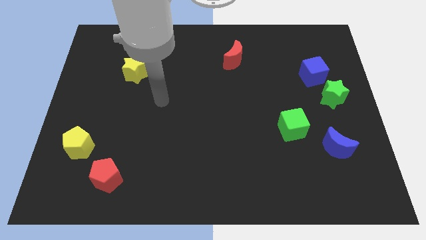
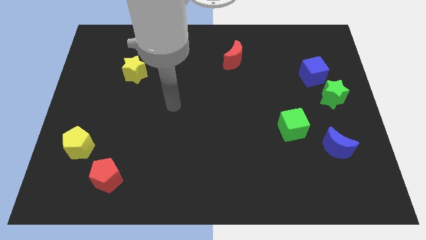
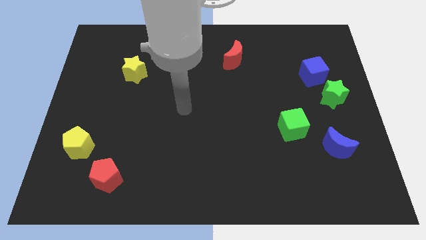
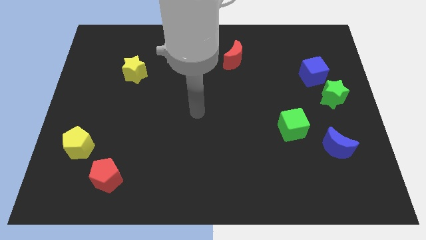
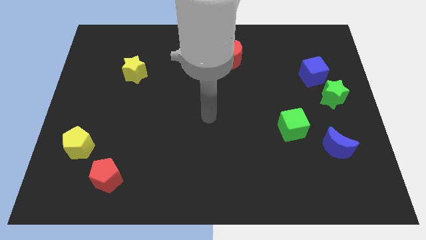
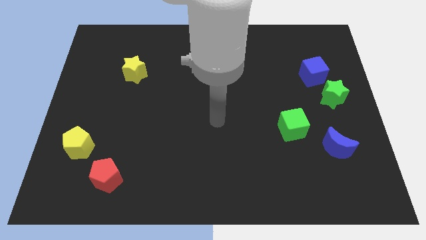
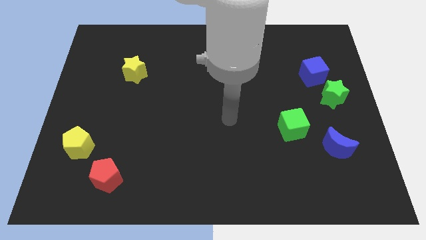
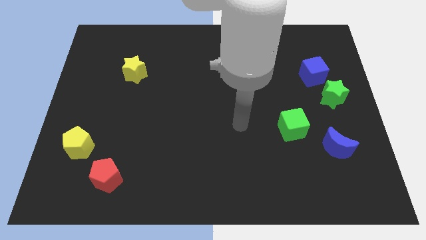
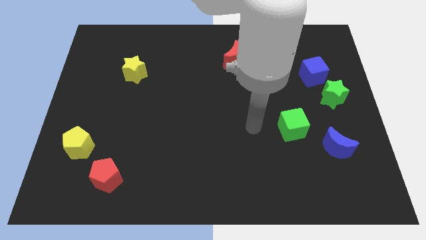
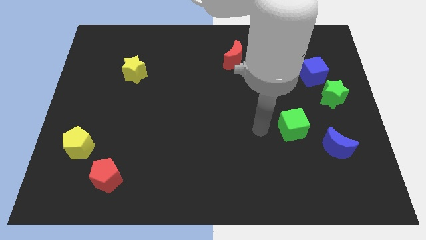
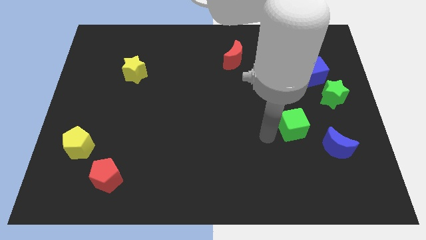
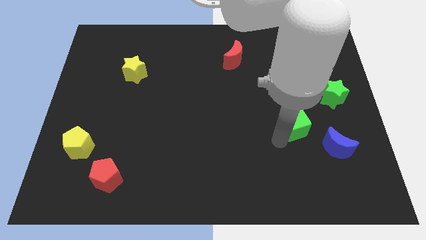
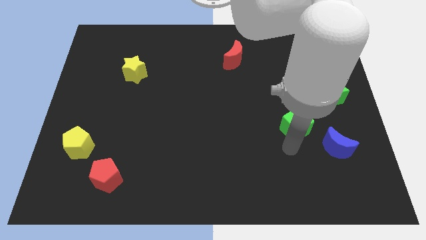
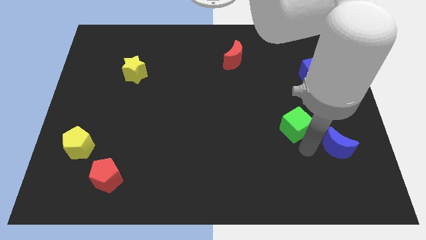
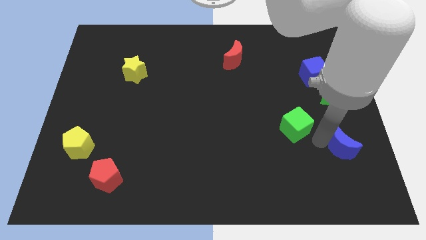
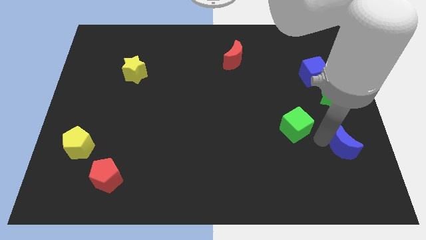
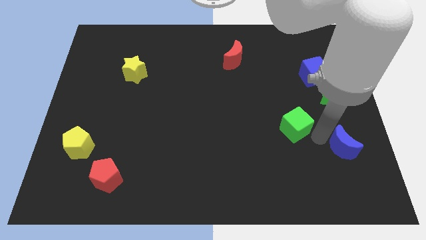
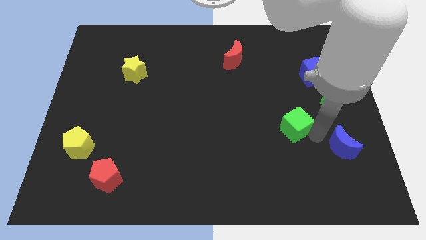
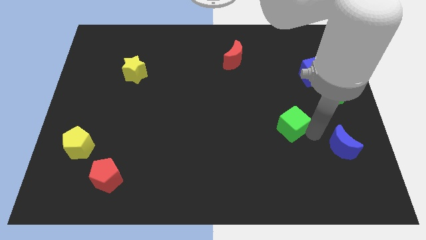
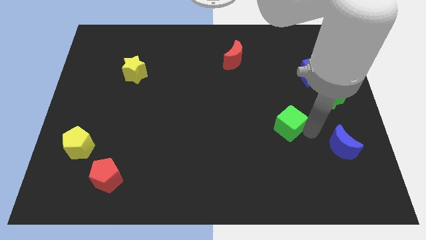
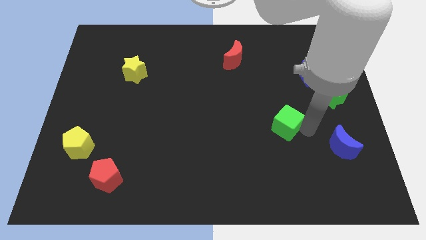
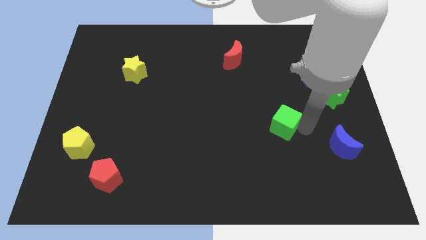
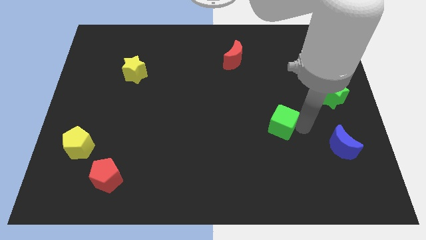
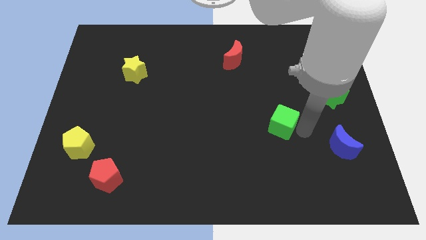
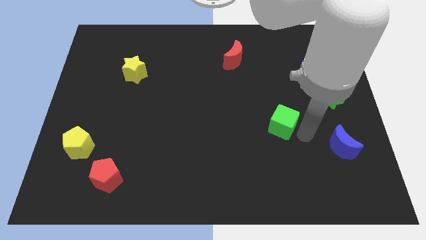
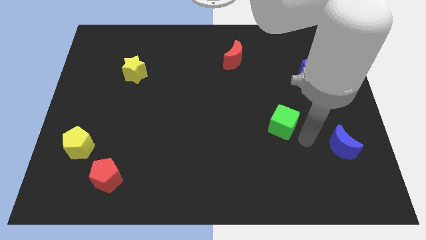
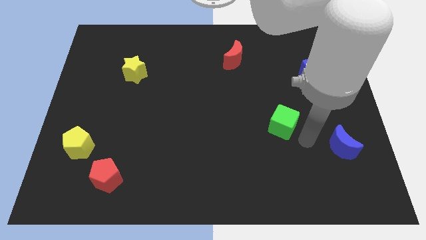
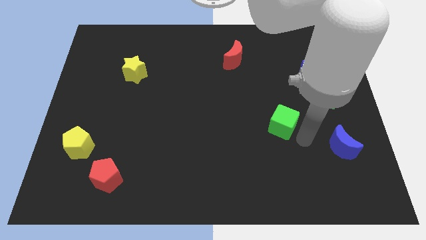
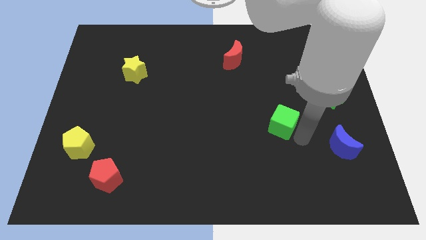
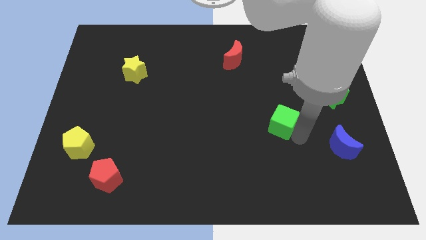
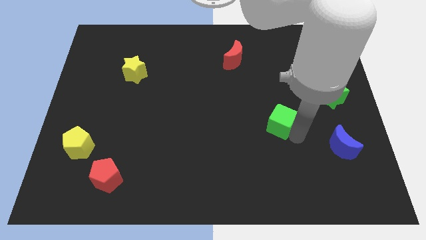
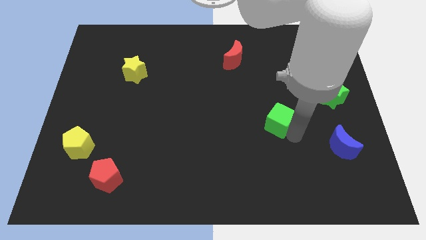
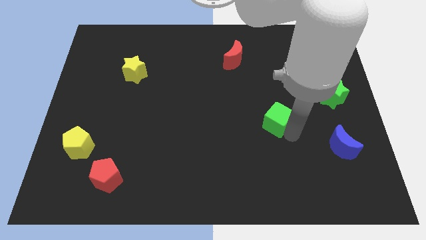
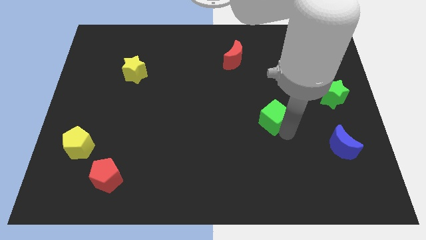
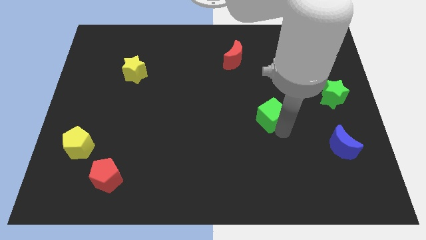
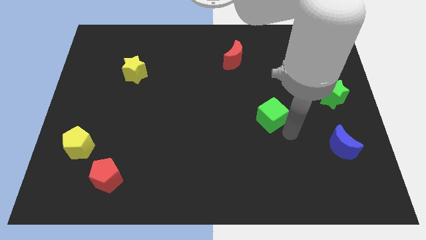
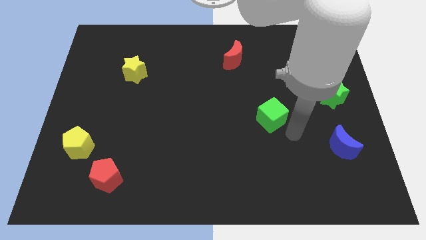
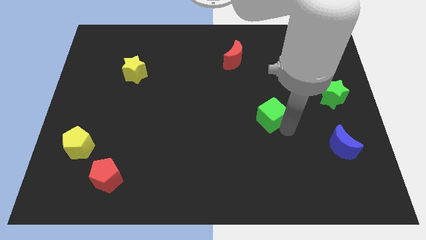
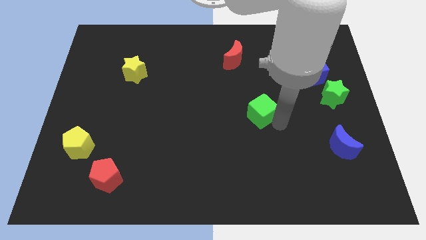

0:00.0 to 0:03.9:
slightly move the green cube up and then to the left

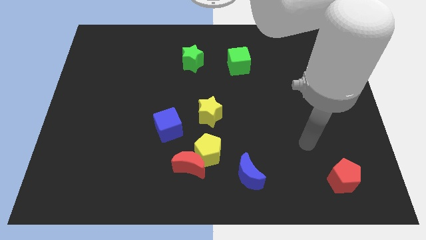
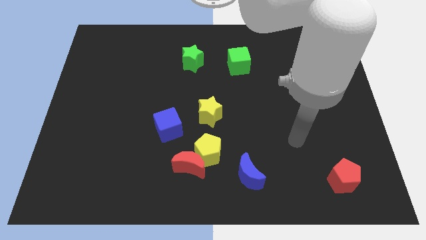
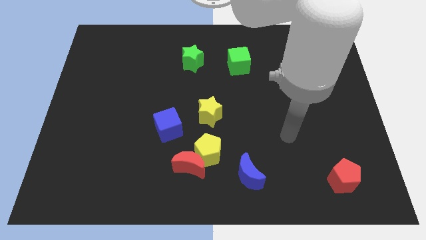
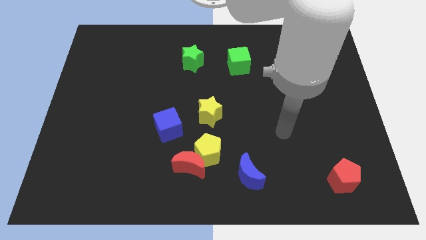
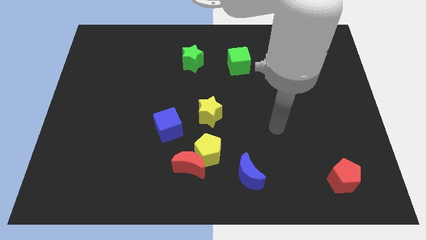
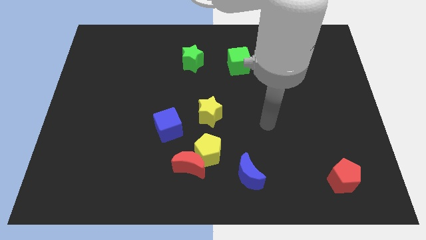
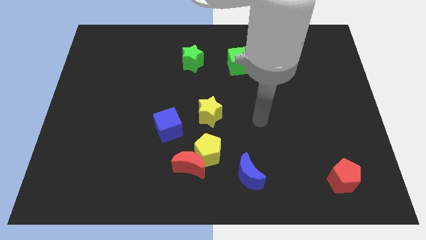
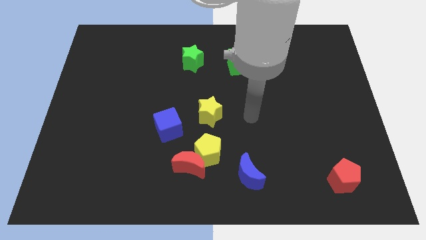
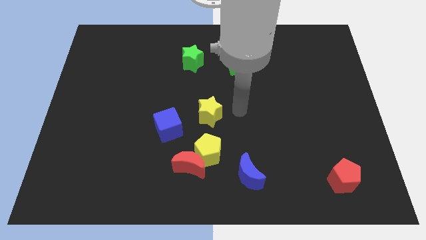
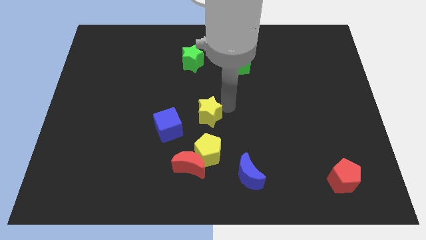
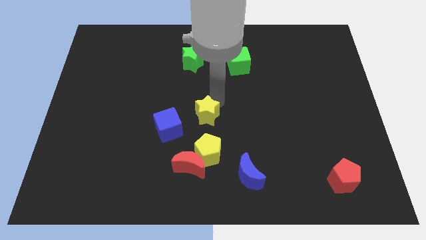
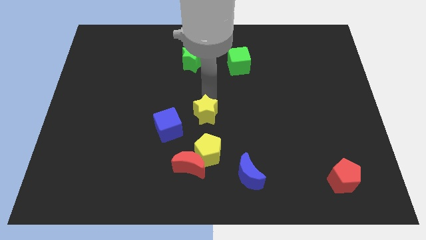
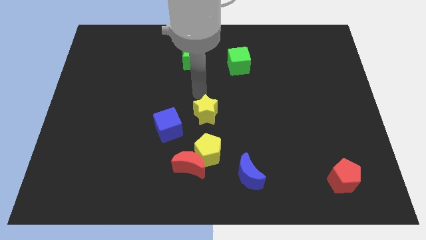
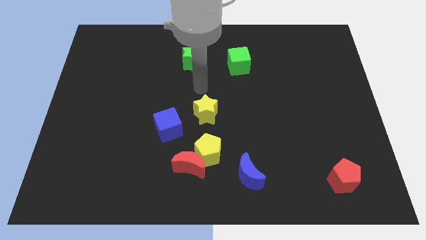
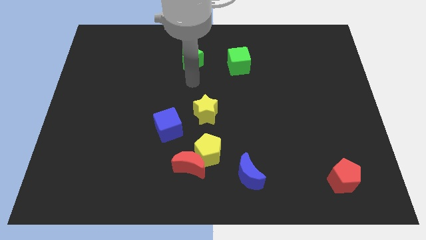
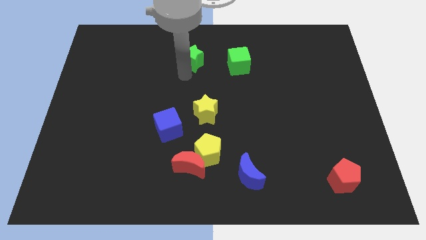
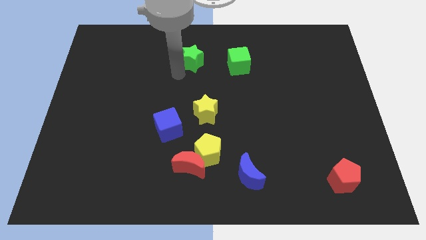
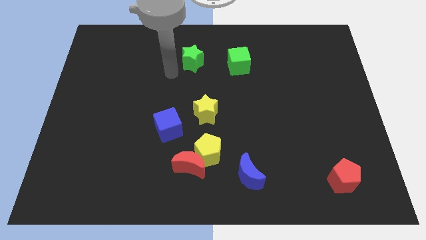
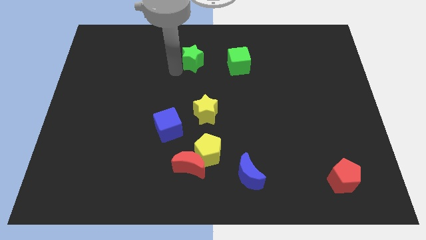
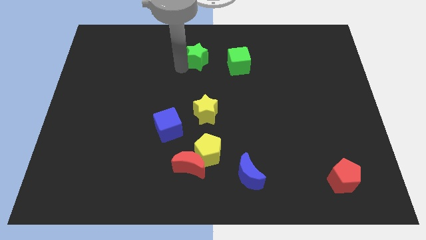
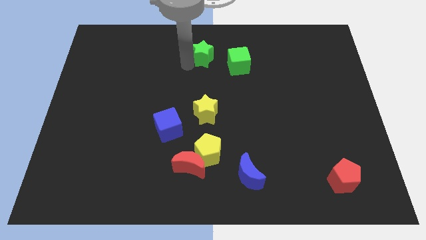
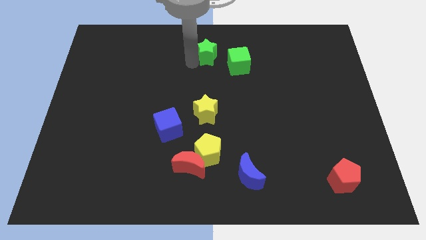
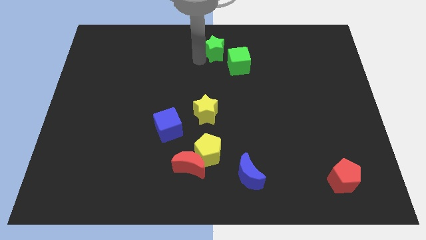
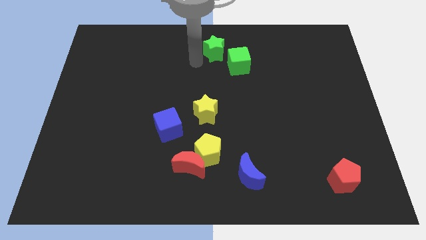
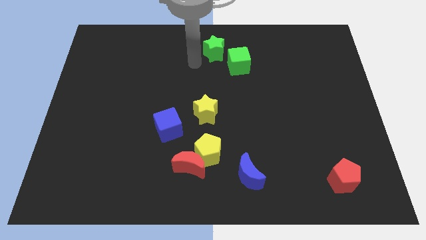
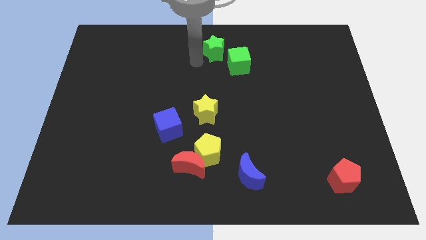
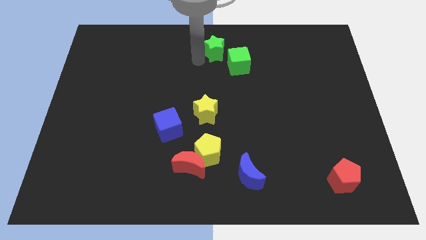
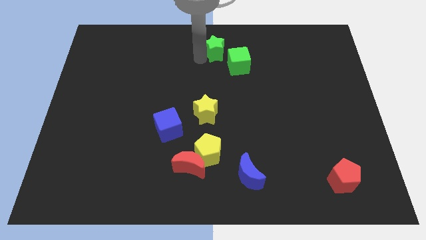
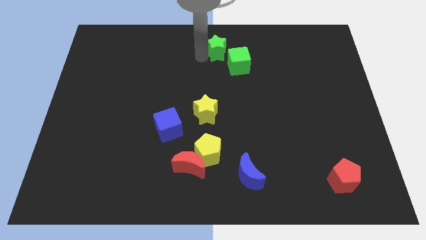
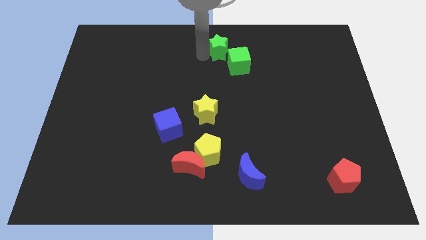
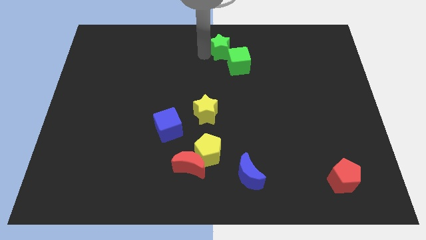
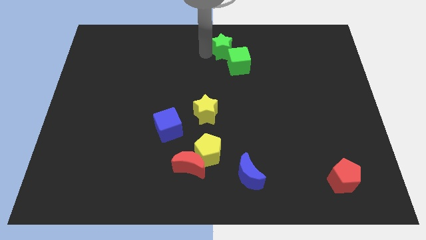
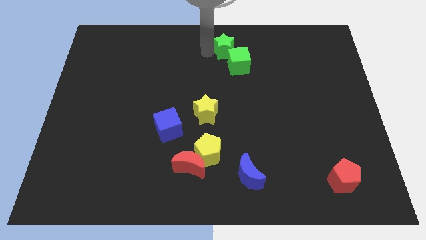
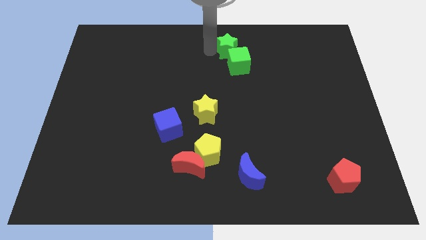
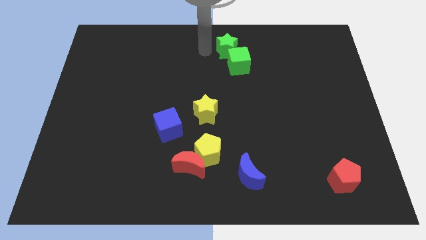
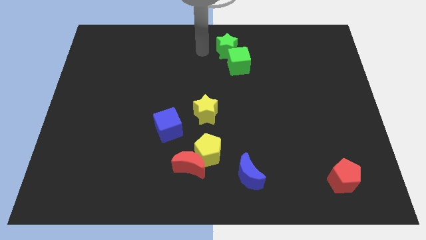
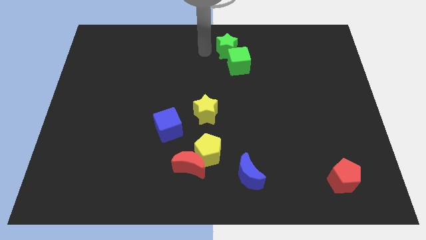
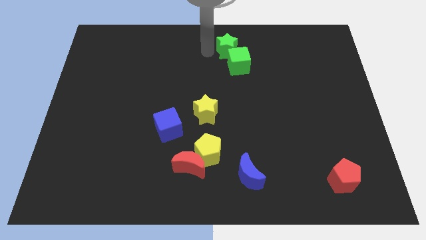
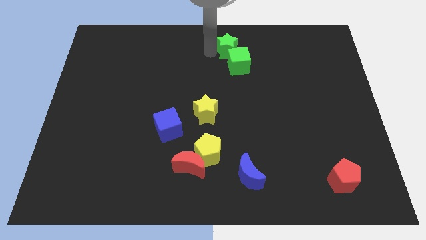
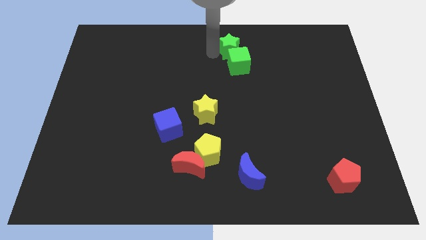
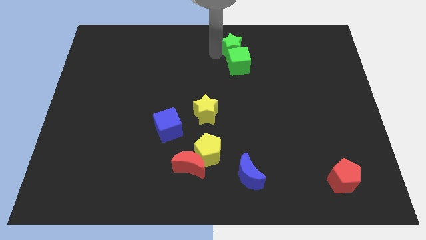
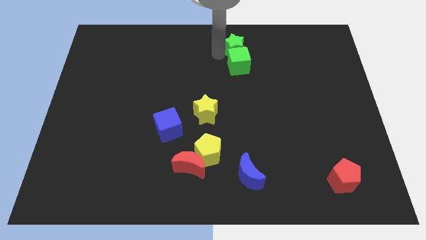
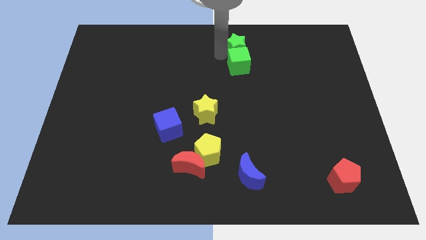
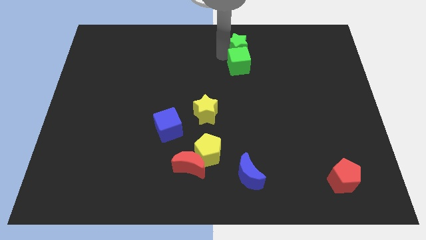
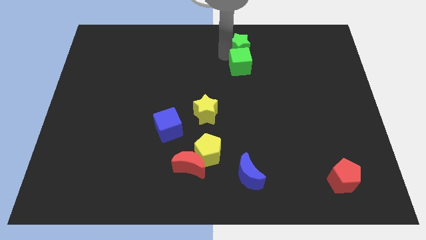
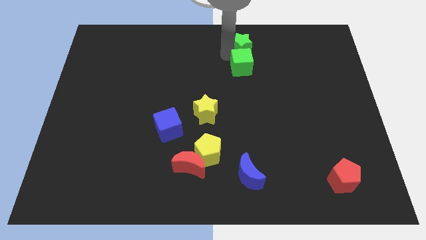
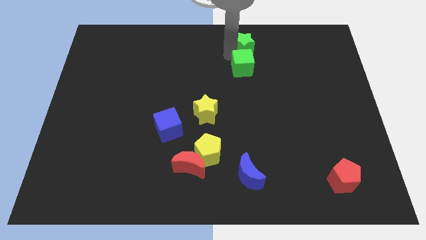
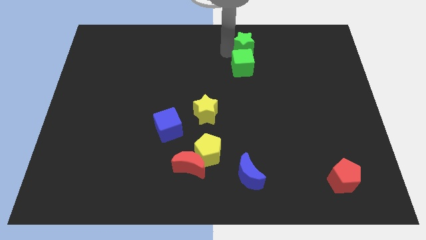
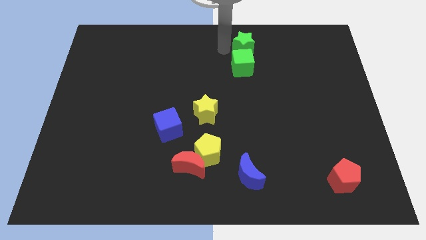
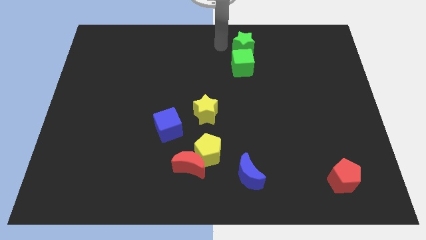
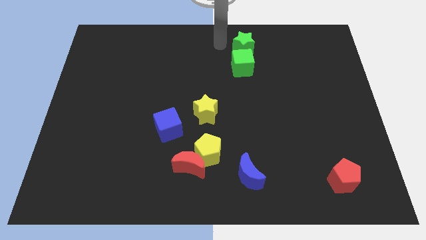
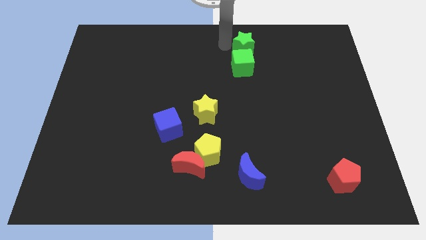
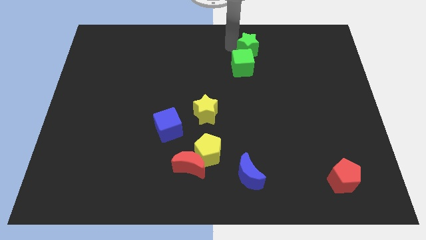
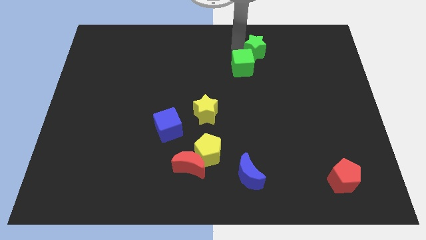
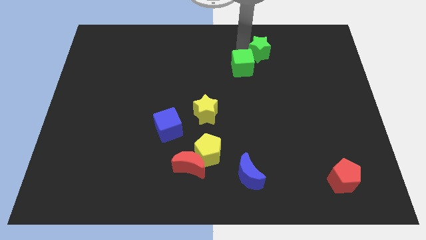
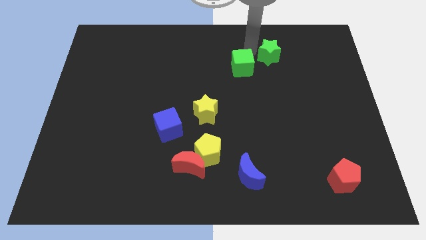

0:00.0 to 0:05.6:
slide the green star right
